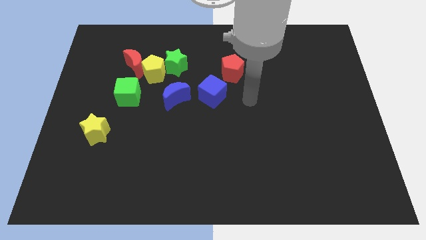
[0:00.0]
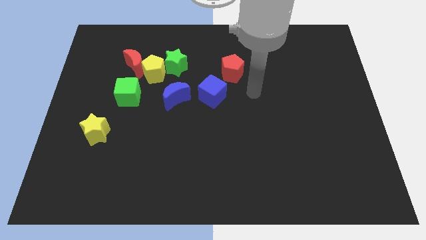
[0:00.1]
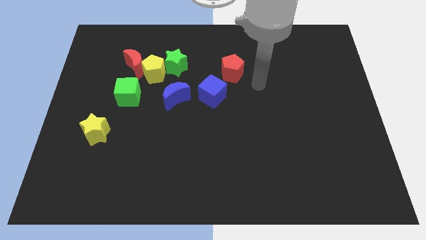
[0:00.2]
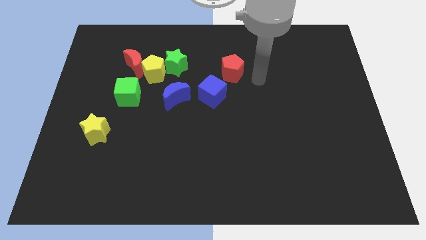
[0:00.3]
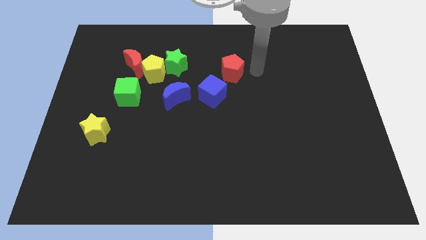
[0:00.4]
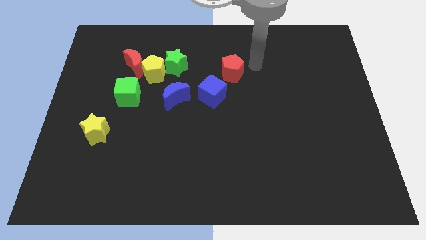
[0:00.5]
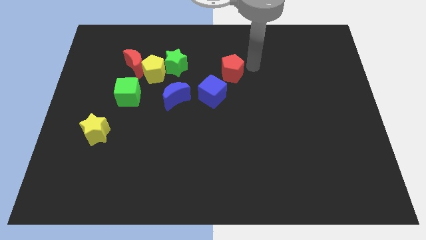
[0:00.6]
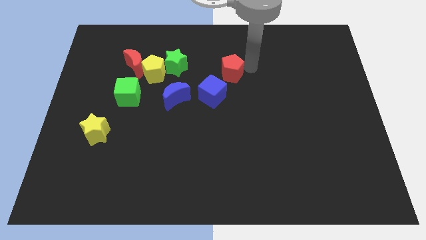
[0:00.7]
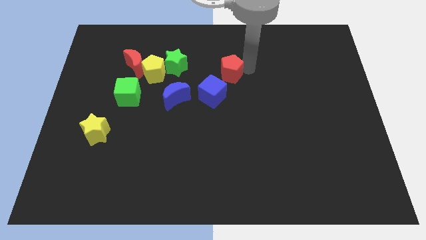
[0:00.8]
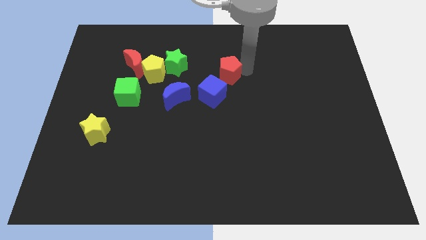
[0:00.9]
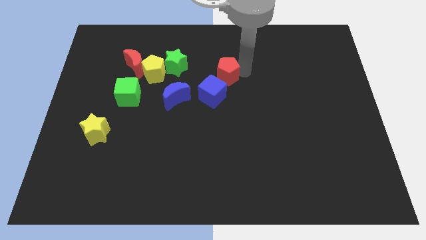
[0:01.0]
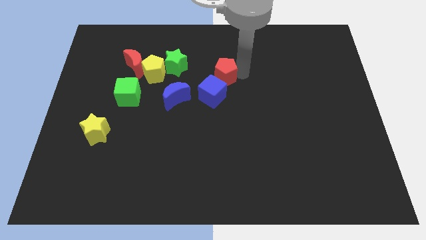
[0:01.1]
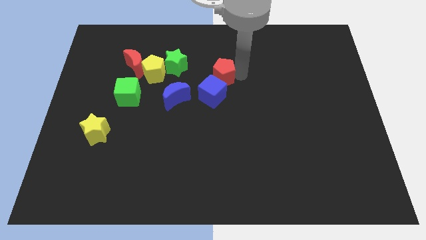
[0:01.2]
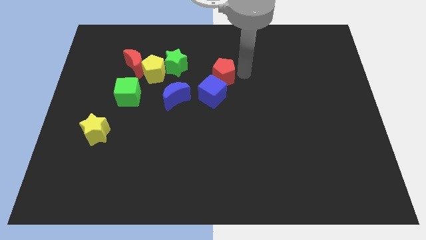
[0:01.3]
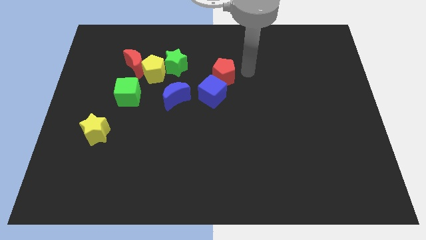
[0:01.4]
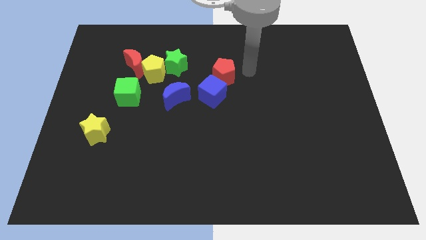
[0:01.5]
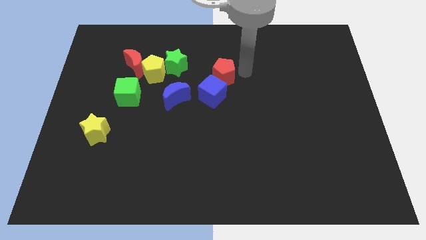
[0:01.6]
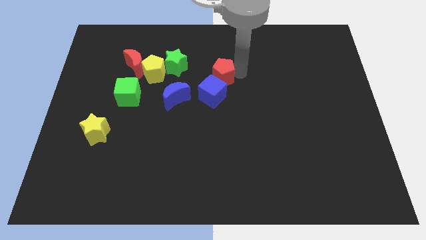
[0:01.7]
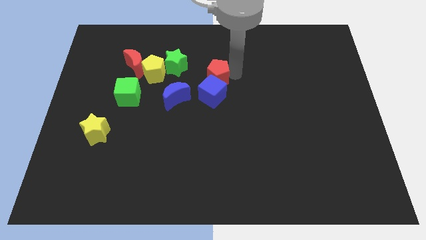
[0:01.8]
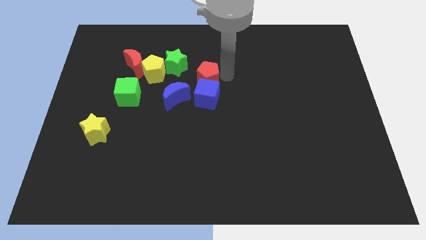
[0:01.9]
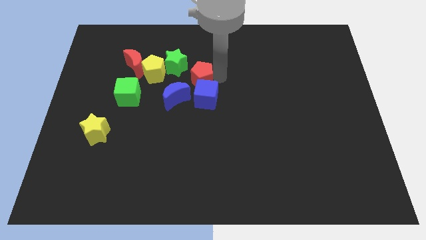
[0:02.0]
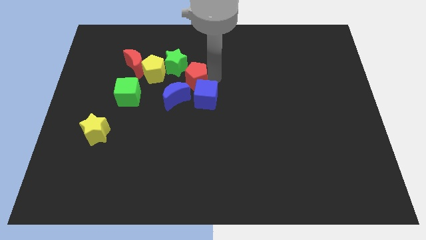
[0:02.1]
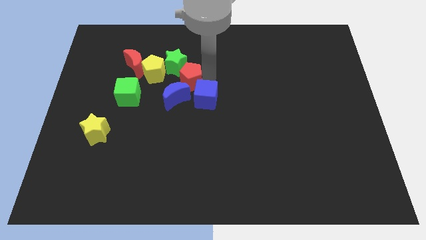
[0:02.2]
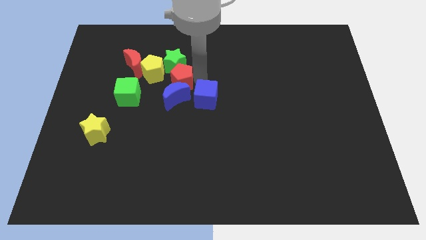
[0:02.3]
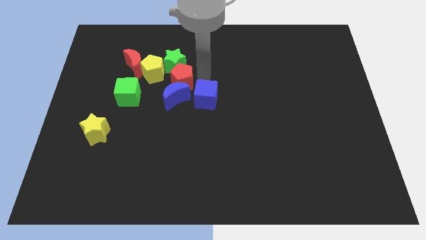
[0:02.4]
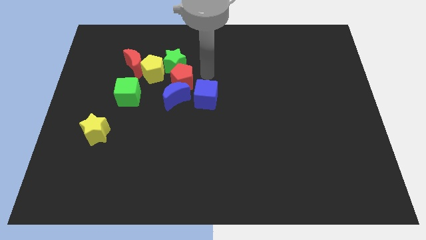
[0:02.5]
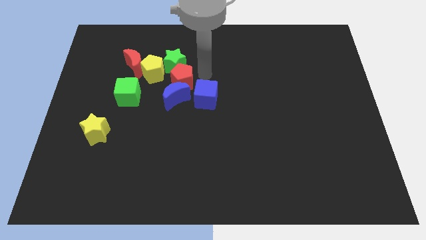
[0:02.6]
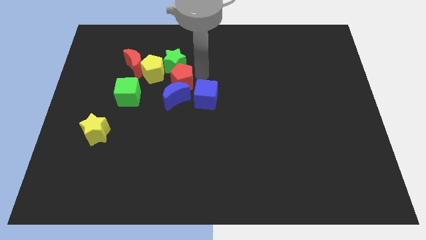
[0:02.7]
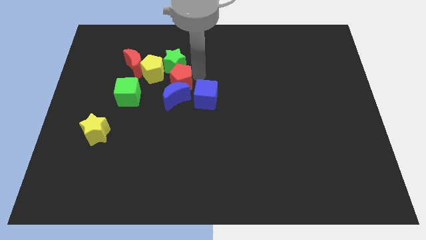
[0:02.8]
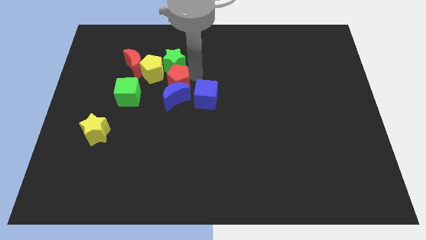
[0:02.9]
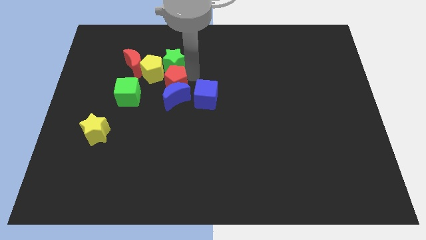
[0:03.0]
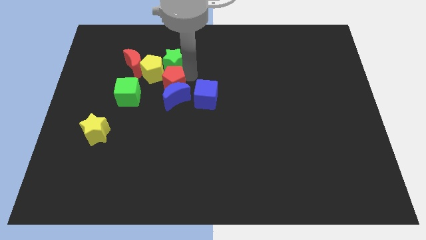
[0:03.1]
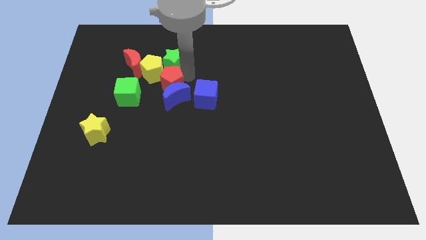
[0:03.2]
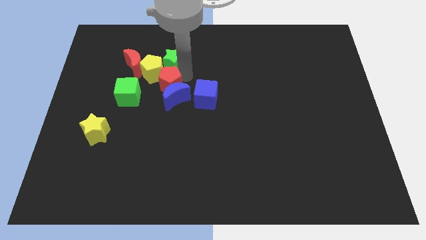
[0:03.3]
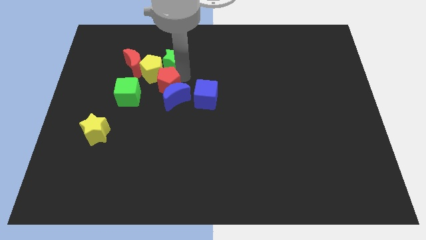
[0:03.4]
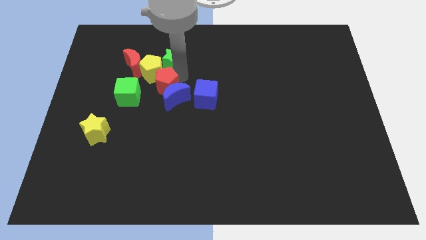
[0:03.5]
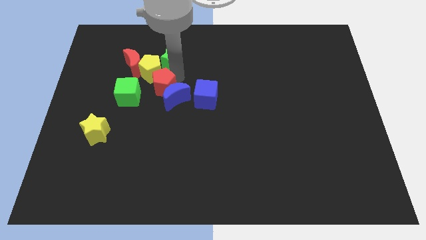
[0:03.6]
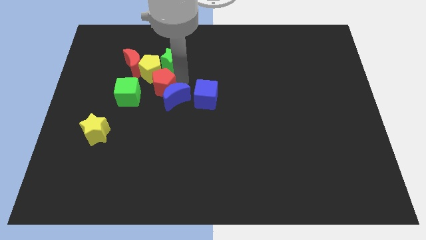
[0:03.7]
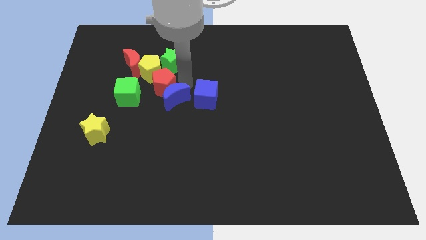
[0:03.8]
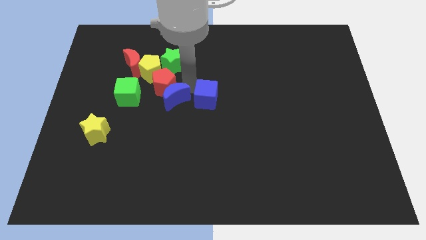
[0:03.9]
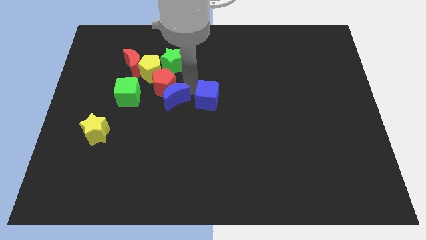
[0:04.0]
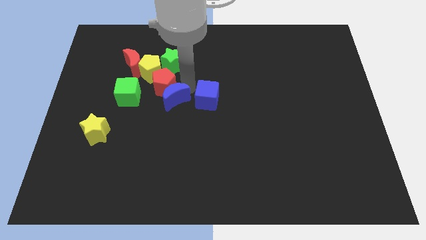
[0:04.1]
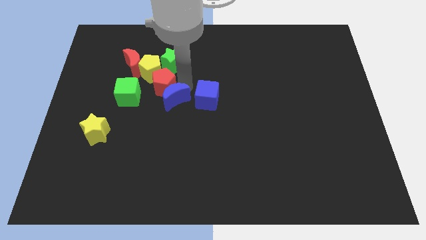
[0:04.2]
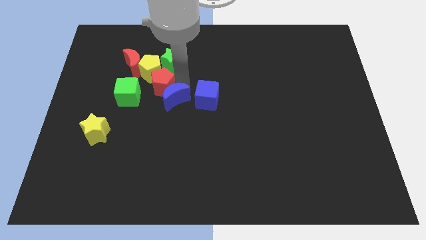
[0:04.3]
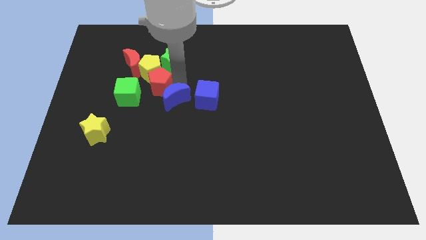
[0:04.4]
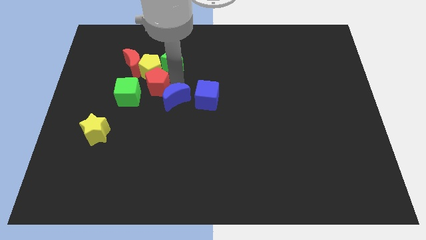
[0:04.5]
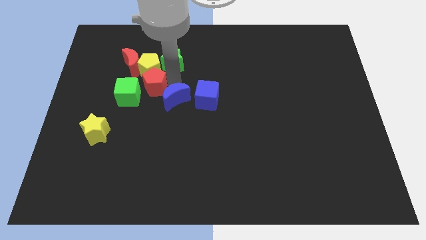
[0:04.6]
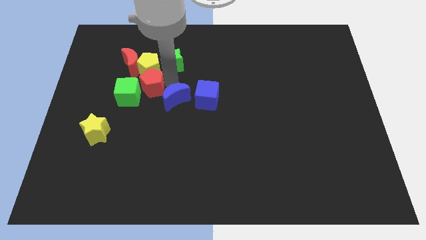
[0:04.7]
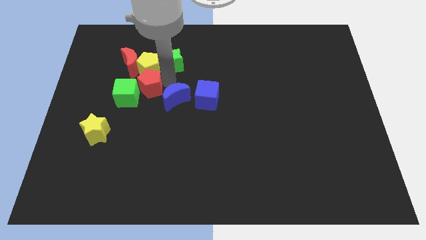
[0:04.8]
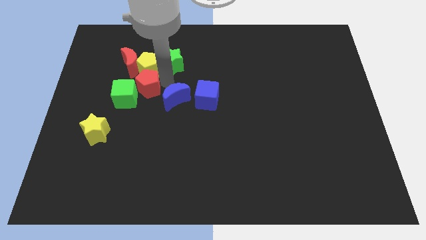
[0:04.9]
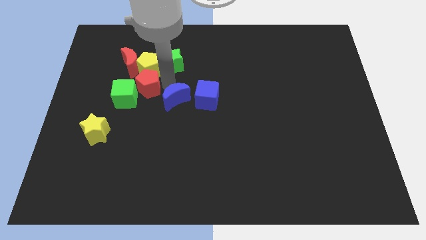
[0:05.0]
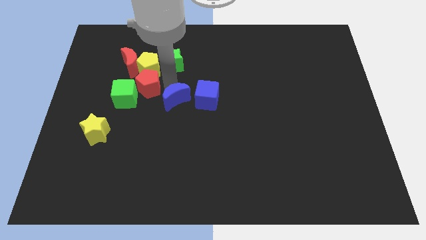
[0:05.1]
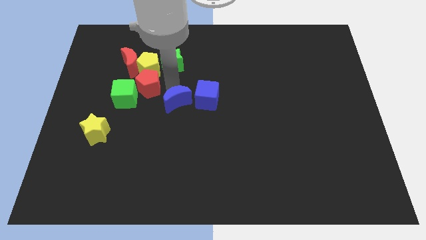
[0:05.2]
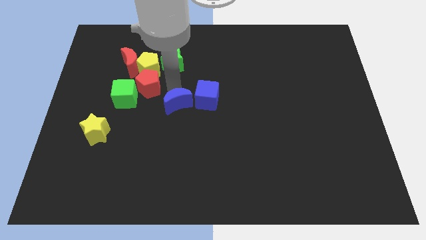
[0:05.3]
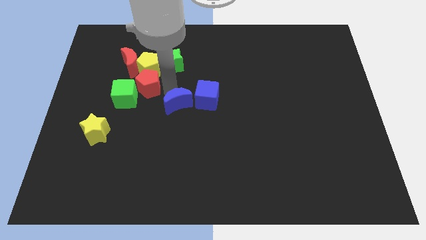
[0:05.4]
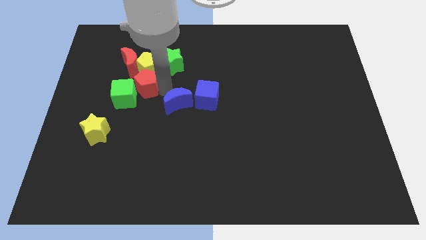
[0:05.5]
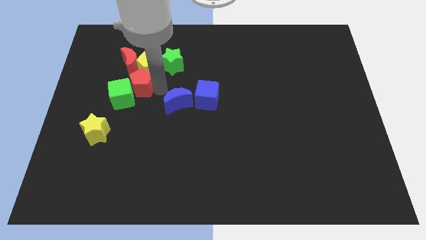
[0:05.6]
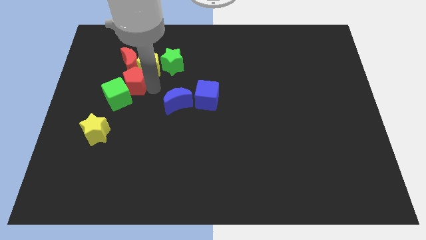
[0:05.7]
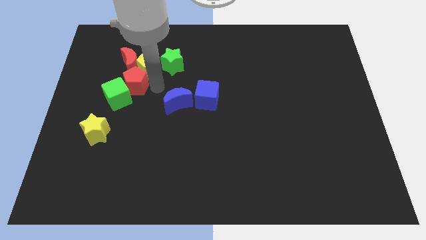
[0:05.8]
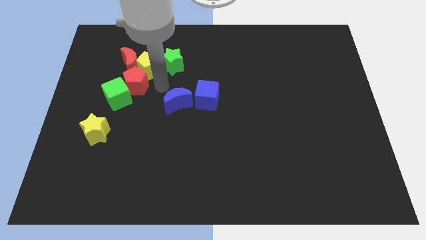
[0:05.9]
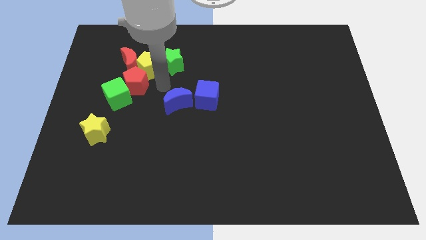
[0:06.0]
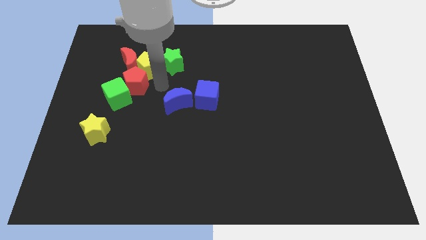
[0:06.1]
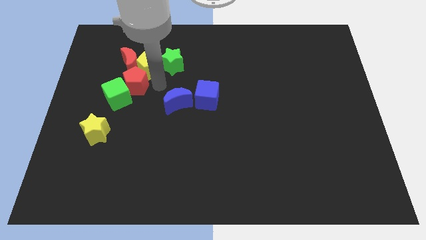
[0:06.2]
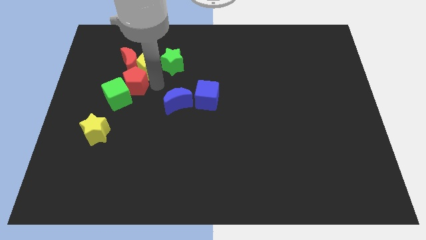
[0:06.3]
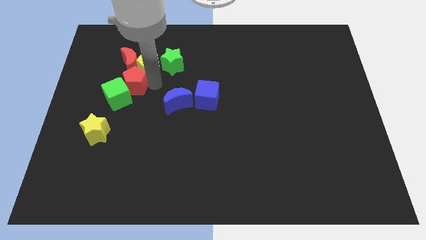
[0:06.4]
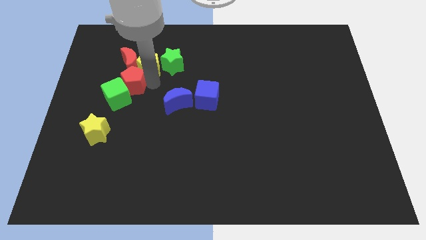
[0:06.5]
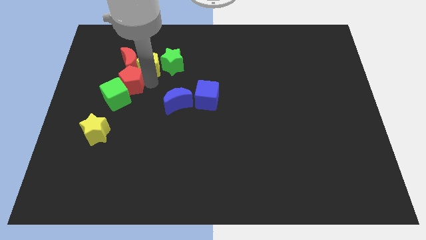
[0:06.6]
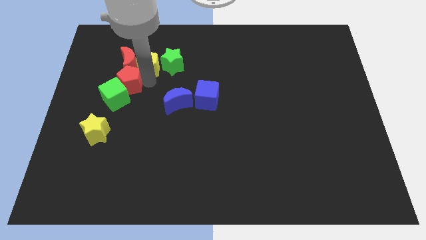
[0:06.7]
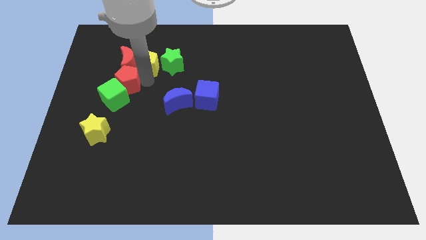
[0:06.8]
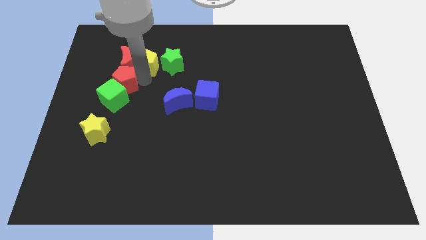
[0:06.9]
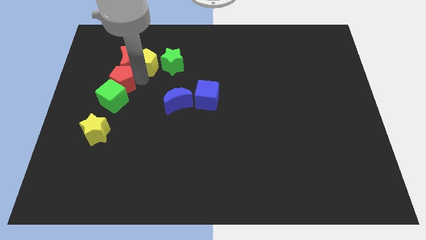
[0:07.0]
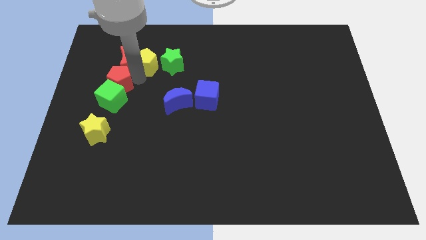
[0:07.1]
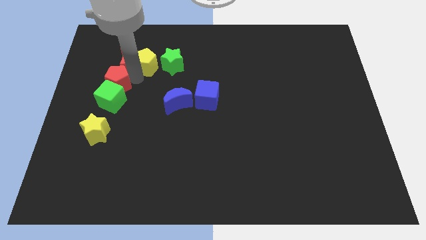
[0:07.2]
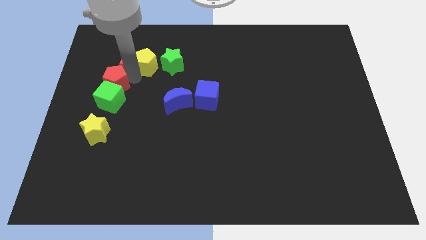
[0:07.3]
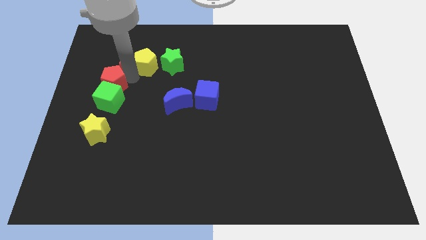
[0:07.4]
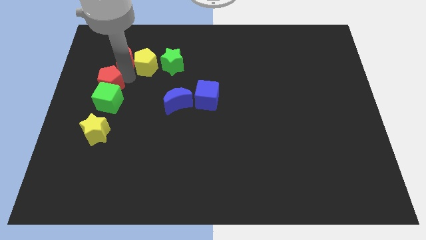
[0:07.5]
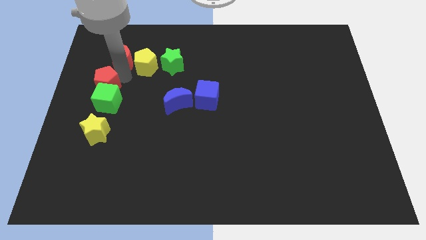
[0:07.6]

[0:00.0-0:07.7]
push the red pentagon to the center left

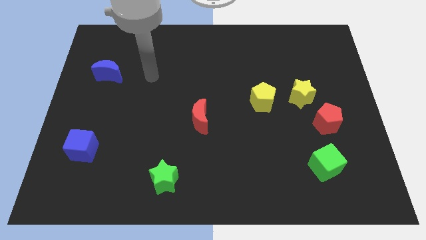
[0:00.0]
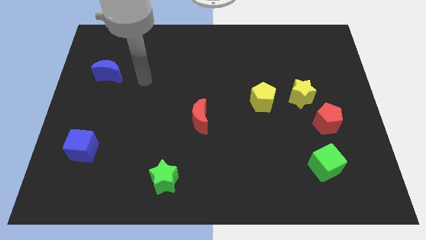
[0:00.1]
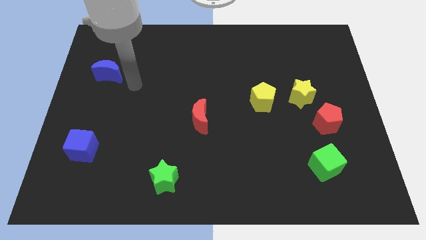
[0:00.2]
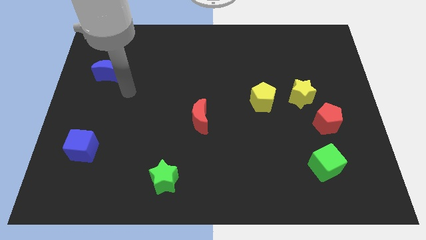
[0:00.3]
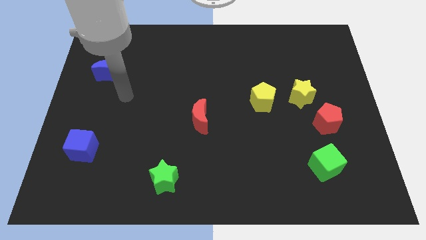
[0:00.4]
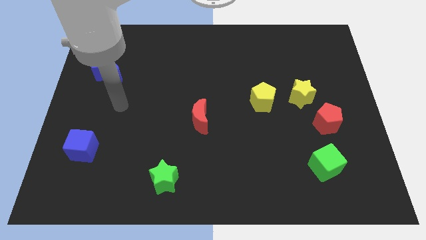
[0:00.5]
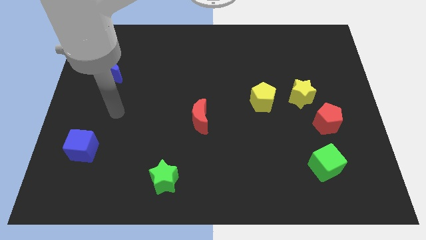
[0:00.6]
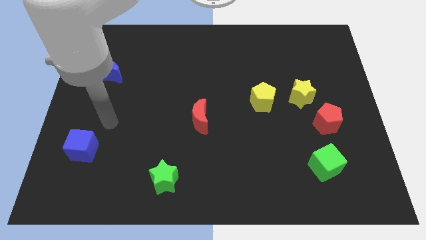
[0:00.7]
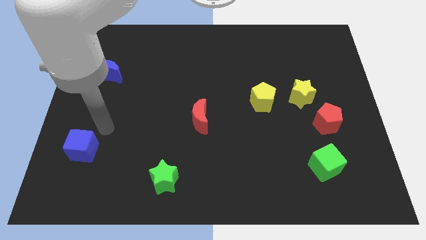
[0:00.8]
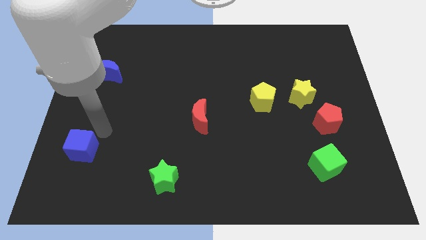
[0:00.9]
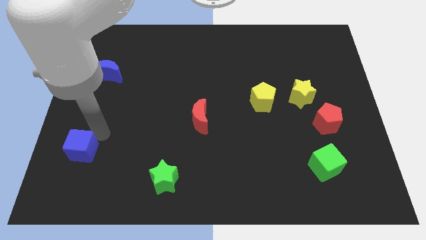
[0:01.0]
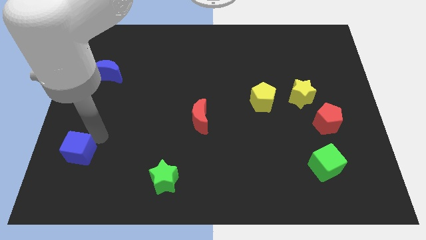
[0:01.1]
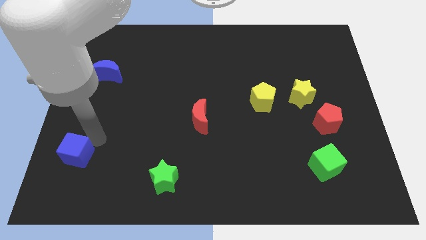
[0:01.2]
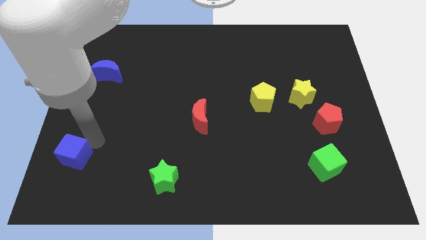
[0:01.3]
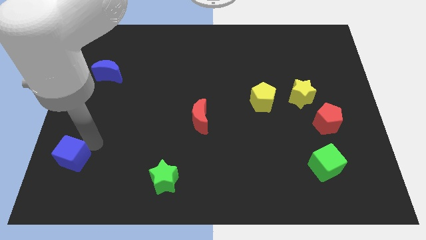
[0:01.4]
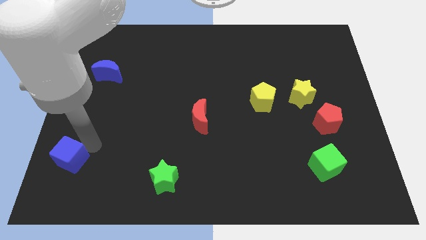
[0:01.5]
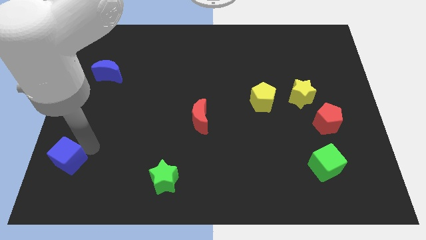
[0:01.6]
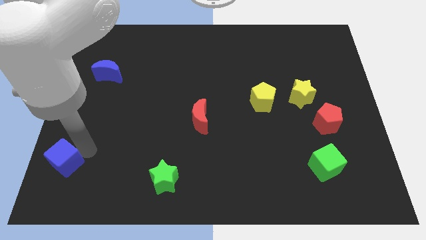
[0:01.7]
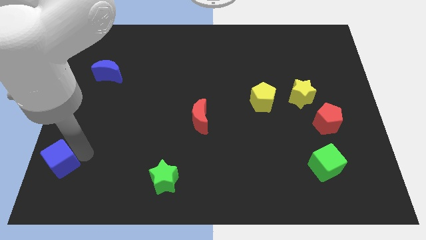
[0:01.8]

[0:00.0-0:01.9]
put the blue cube to the lower left corner
